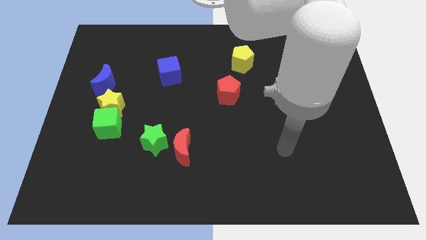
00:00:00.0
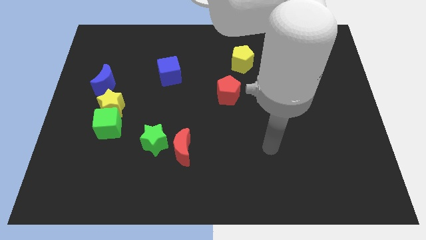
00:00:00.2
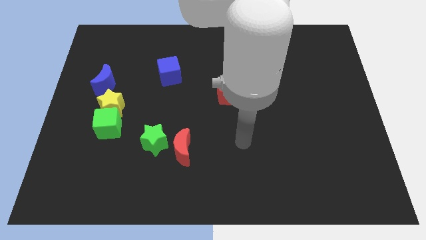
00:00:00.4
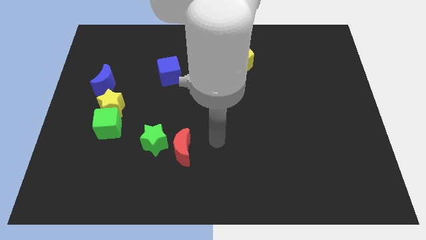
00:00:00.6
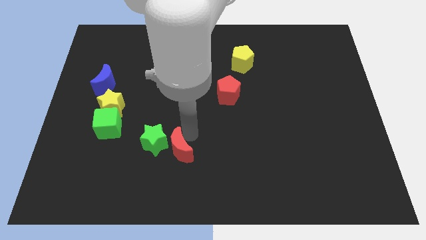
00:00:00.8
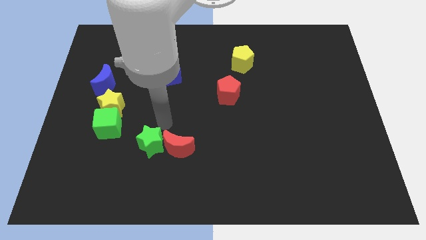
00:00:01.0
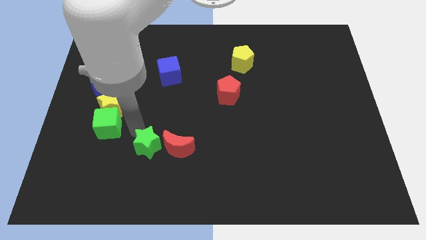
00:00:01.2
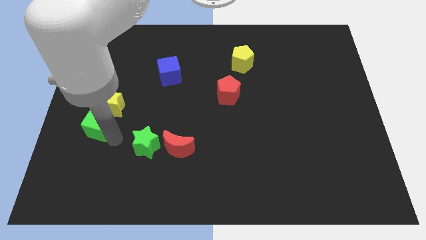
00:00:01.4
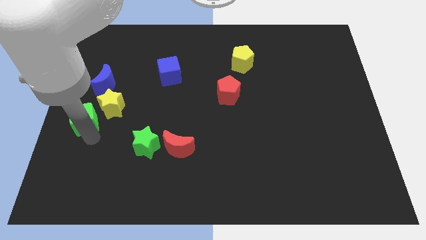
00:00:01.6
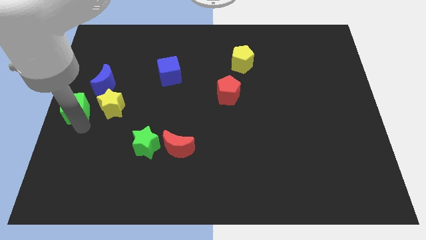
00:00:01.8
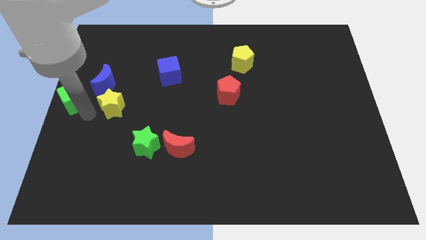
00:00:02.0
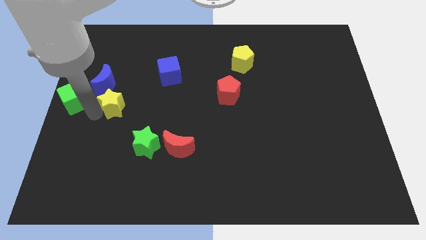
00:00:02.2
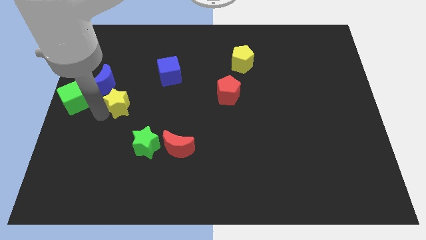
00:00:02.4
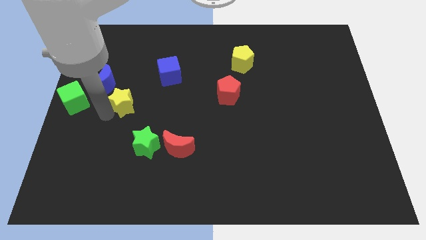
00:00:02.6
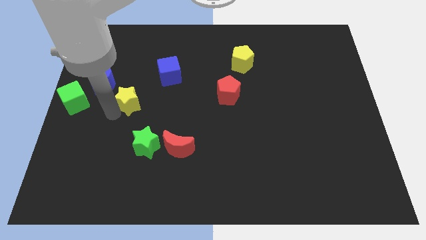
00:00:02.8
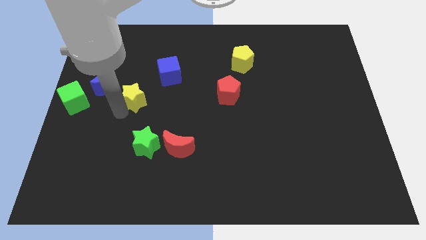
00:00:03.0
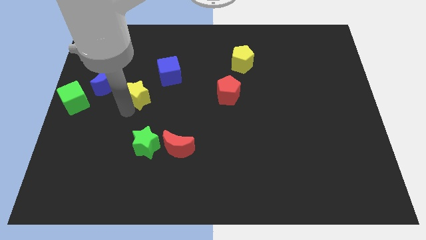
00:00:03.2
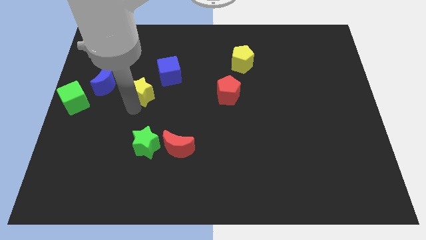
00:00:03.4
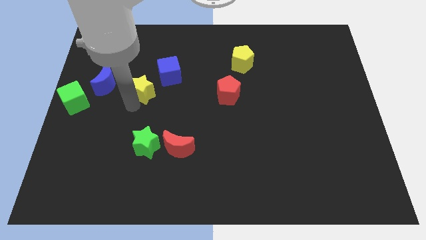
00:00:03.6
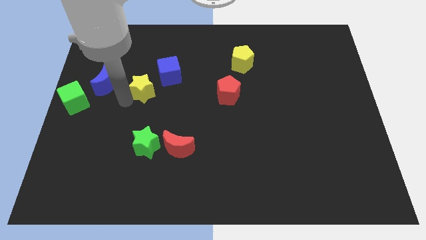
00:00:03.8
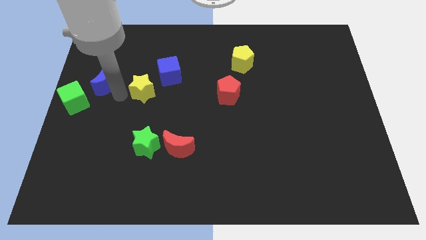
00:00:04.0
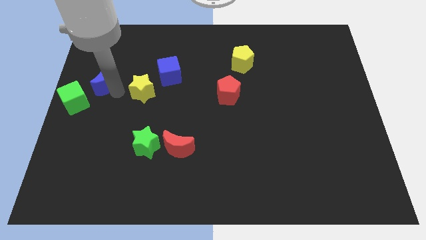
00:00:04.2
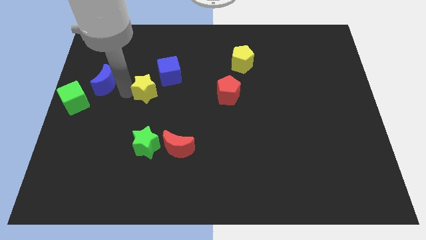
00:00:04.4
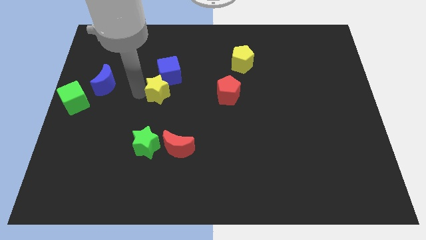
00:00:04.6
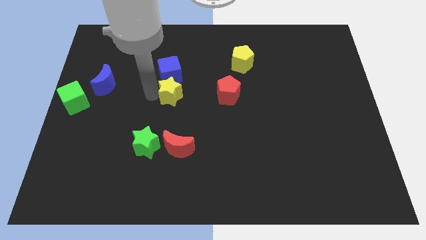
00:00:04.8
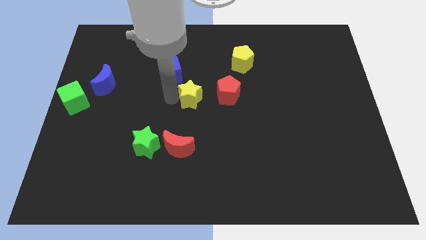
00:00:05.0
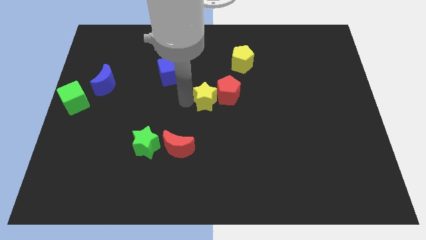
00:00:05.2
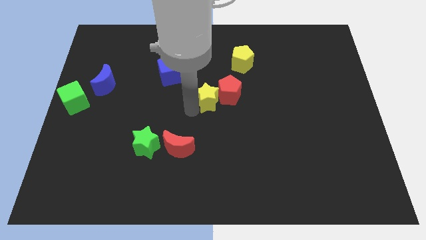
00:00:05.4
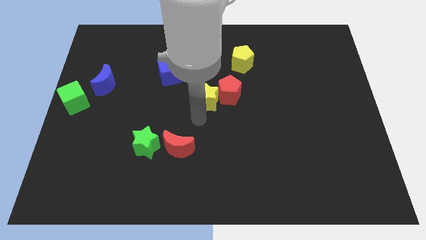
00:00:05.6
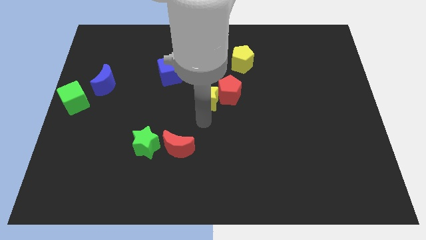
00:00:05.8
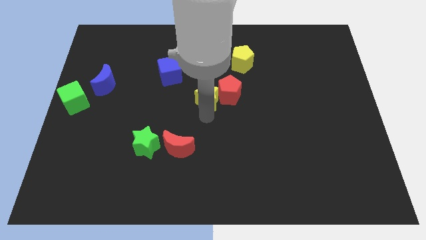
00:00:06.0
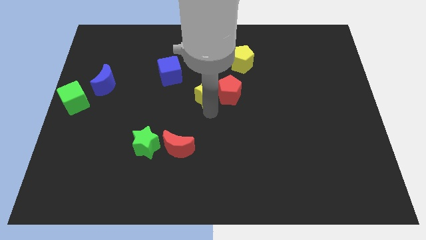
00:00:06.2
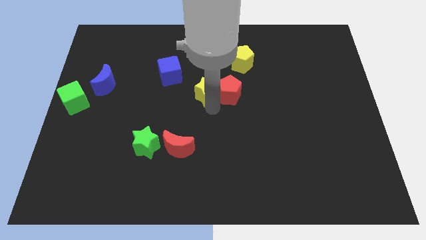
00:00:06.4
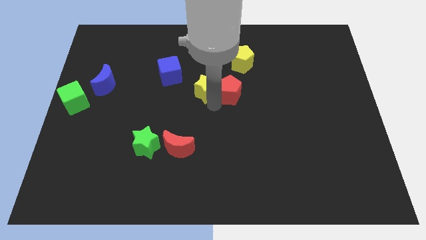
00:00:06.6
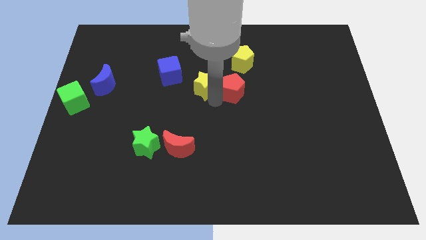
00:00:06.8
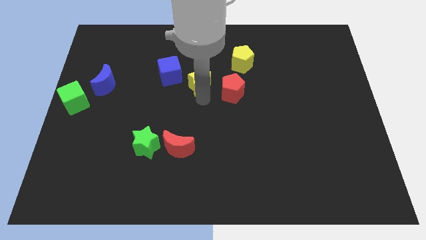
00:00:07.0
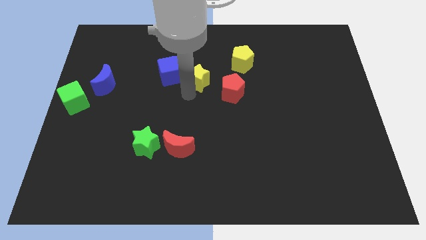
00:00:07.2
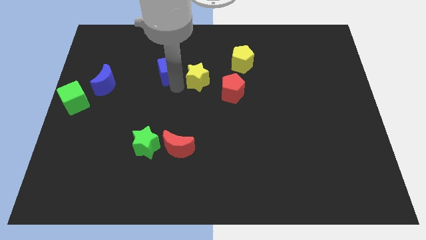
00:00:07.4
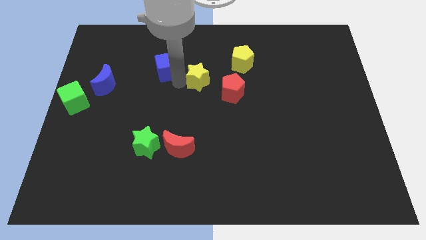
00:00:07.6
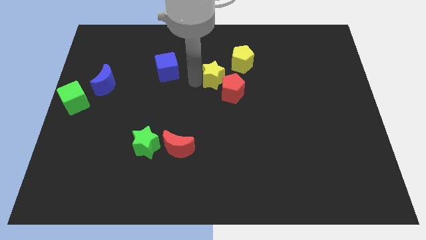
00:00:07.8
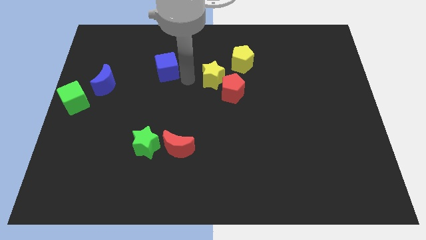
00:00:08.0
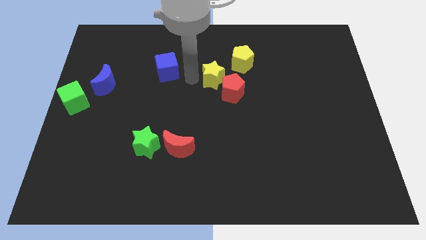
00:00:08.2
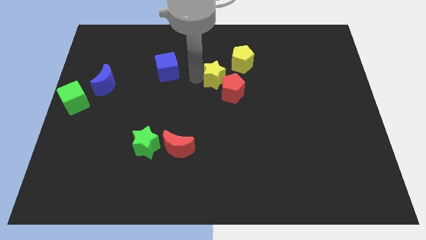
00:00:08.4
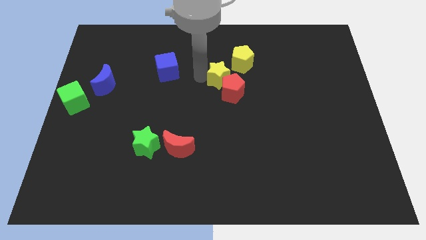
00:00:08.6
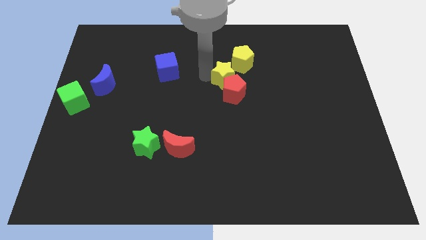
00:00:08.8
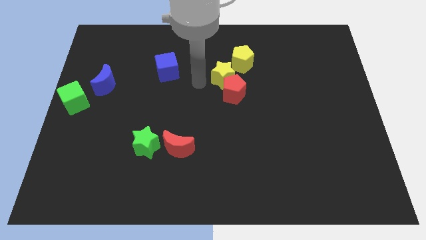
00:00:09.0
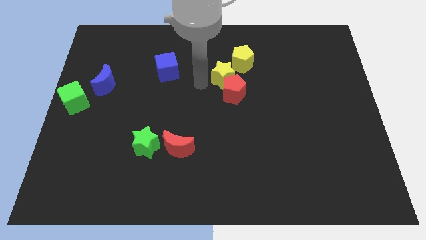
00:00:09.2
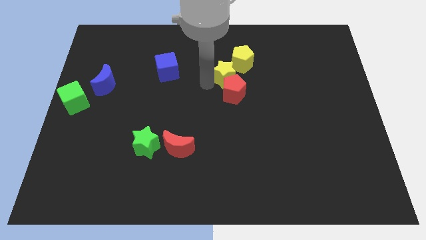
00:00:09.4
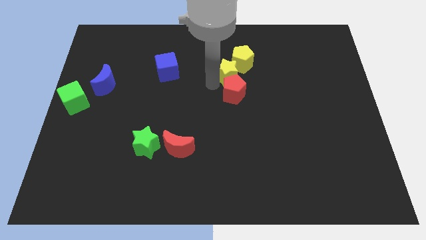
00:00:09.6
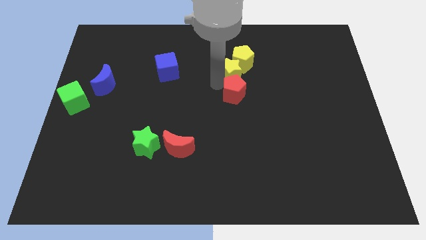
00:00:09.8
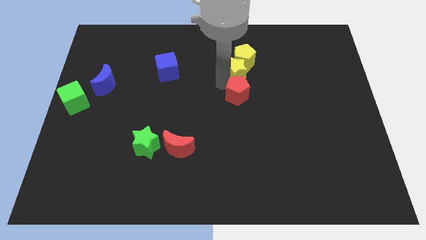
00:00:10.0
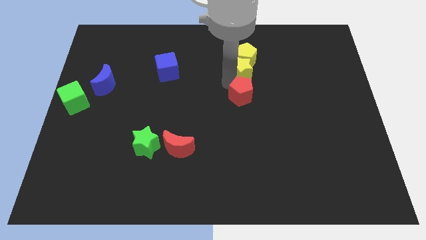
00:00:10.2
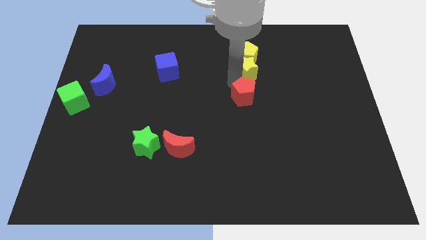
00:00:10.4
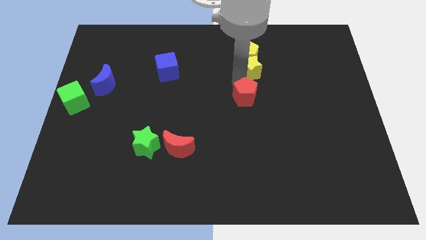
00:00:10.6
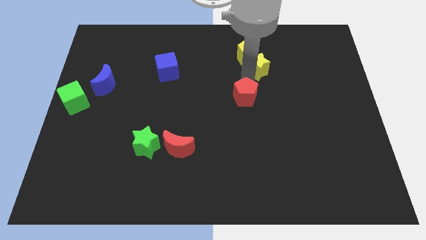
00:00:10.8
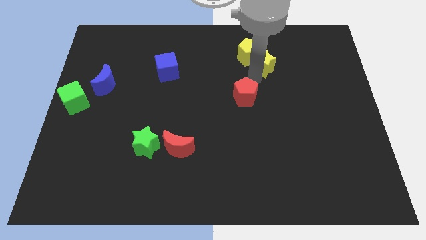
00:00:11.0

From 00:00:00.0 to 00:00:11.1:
push the yellow star to the right of the yellow pentagon

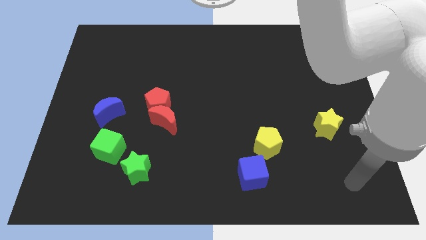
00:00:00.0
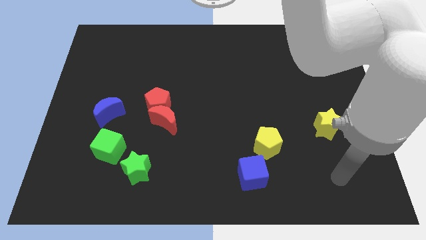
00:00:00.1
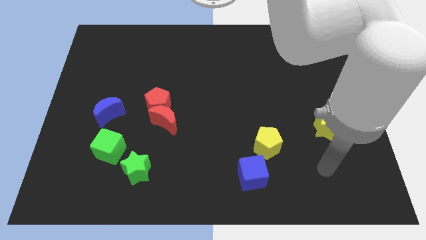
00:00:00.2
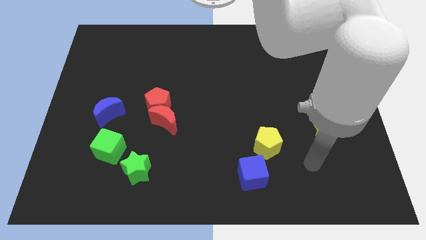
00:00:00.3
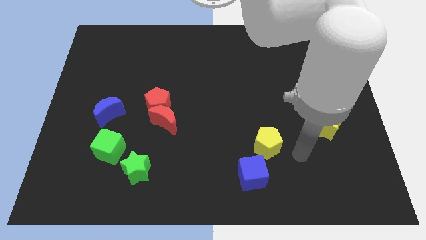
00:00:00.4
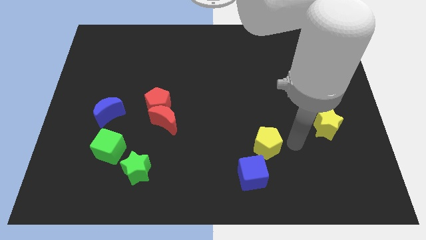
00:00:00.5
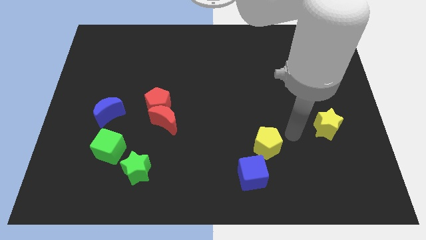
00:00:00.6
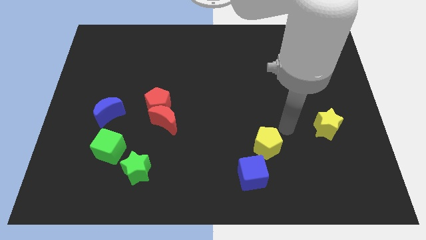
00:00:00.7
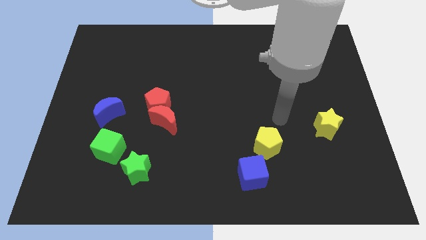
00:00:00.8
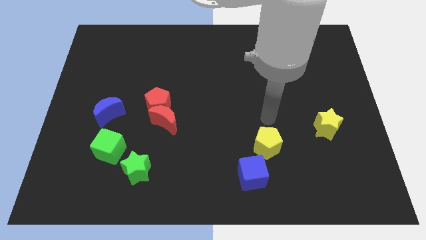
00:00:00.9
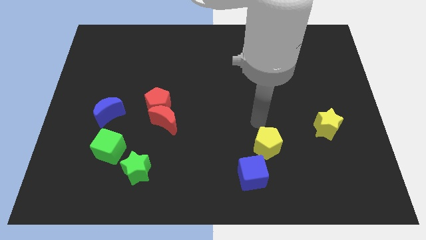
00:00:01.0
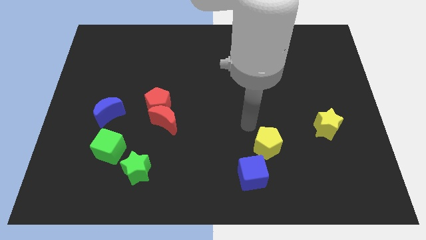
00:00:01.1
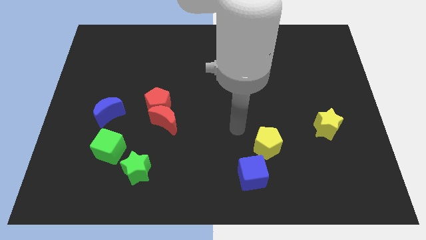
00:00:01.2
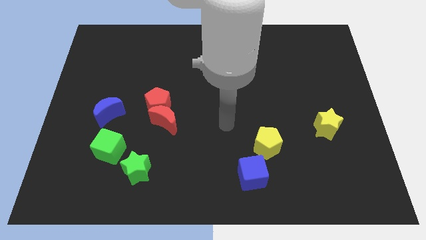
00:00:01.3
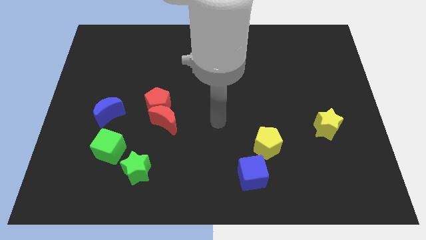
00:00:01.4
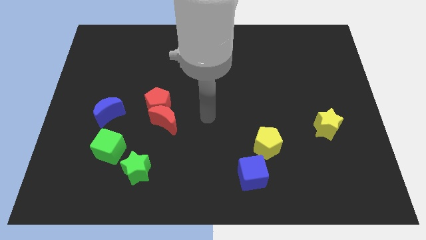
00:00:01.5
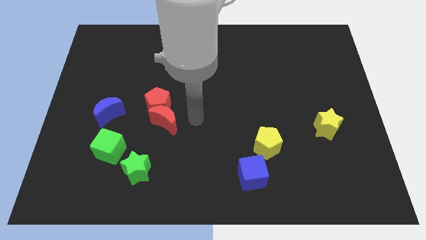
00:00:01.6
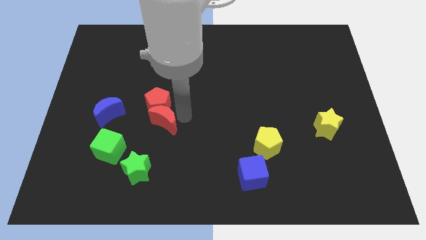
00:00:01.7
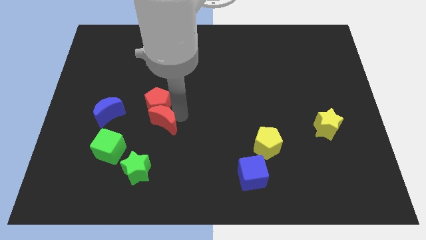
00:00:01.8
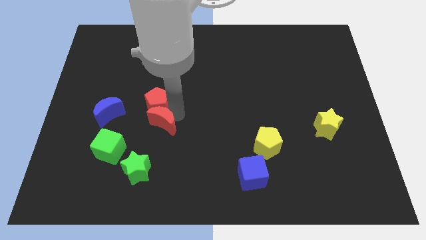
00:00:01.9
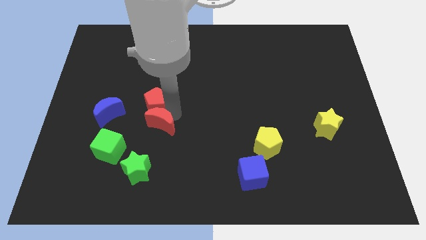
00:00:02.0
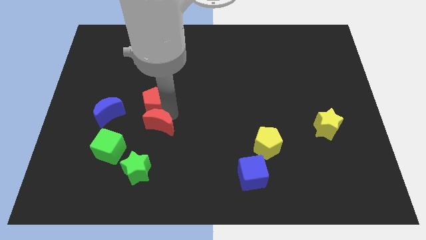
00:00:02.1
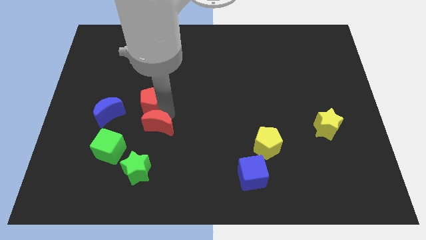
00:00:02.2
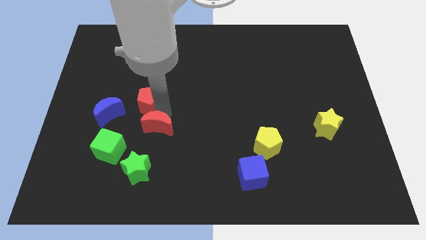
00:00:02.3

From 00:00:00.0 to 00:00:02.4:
push the red pentagon to the top right side of the blue moon
